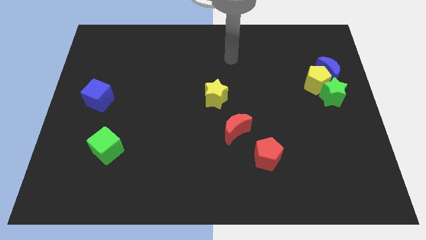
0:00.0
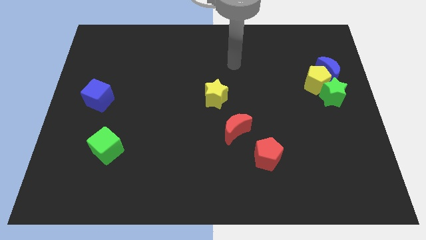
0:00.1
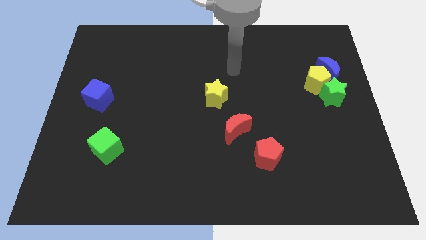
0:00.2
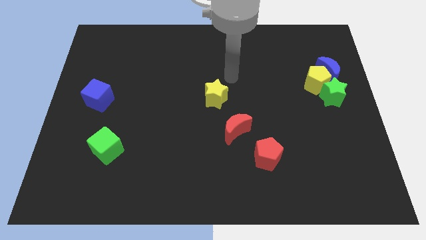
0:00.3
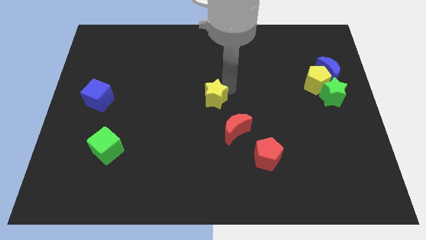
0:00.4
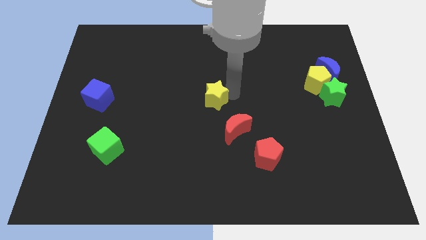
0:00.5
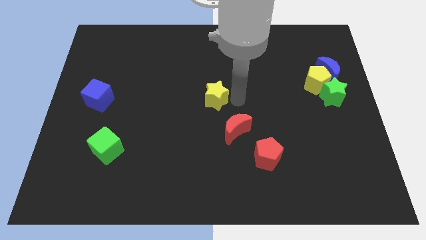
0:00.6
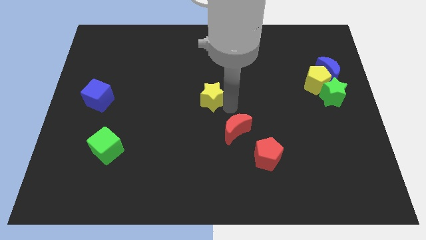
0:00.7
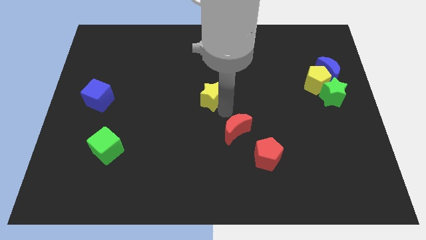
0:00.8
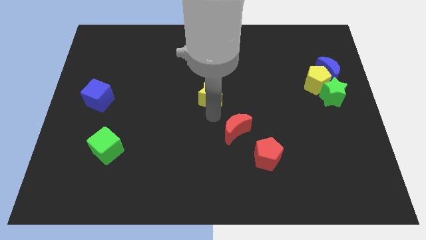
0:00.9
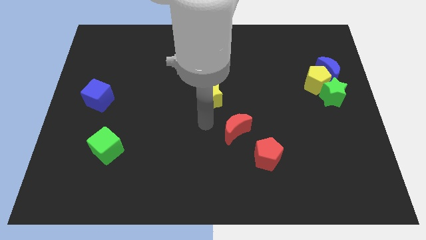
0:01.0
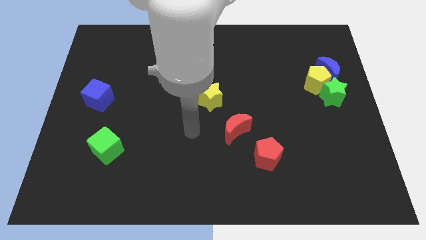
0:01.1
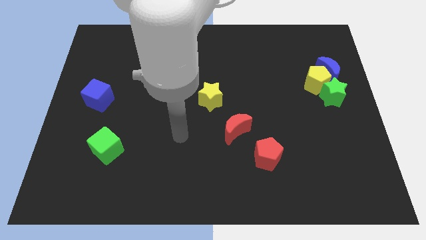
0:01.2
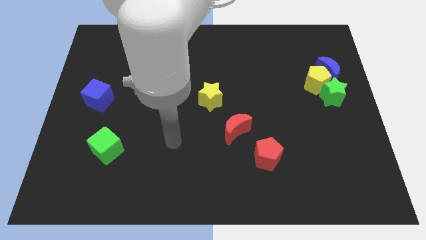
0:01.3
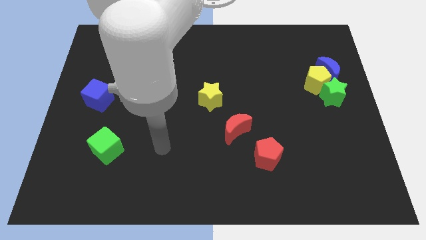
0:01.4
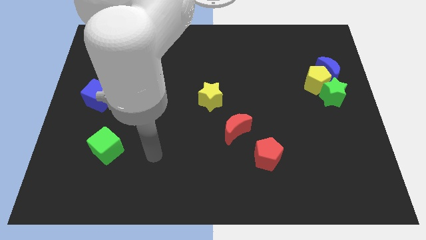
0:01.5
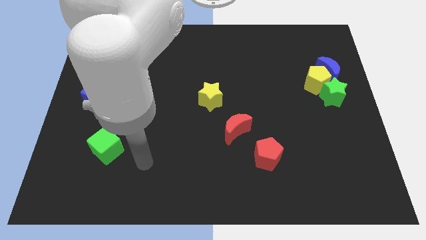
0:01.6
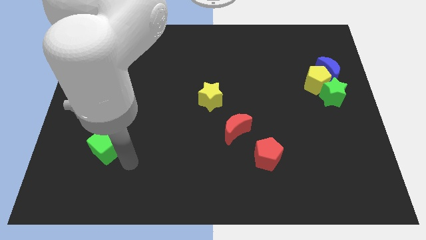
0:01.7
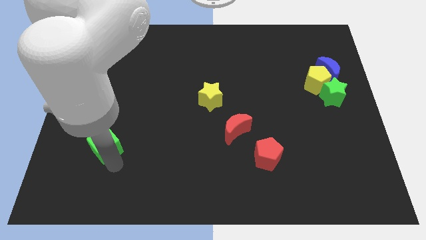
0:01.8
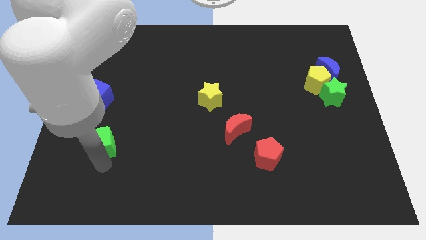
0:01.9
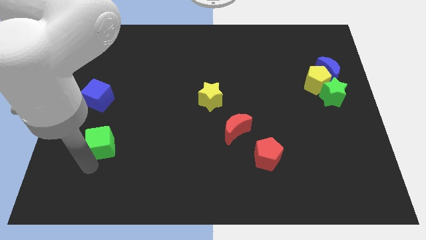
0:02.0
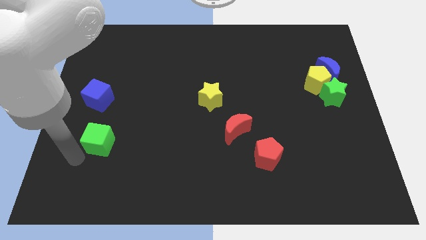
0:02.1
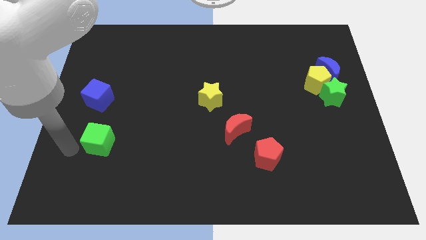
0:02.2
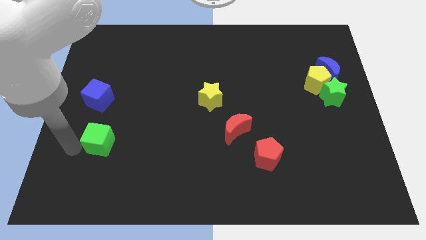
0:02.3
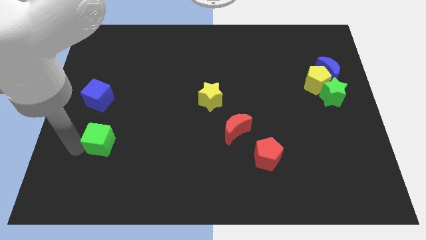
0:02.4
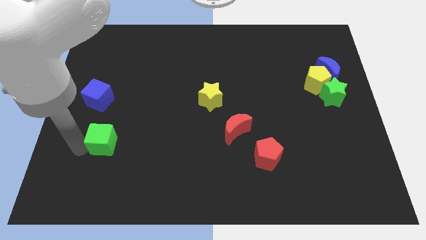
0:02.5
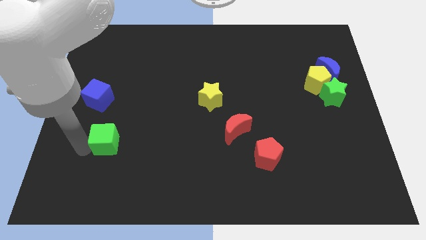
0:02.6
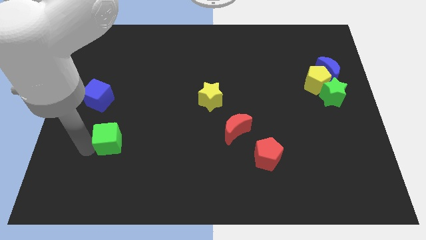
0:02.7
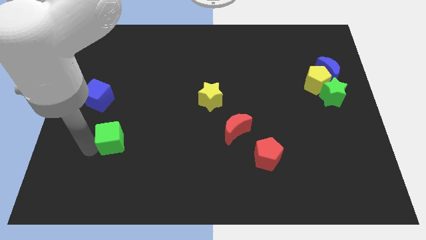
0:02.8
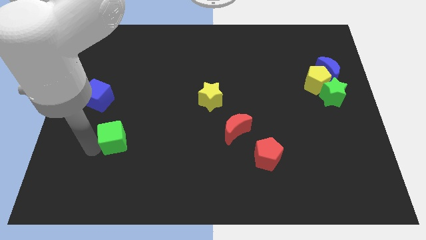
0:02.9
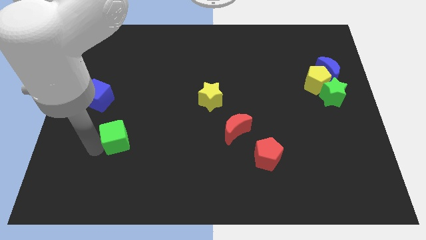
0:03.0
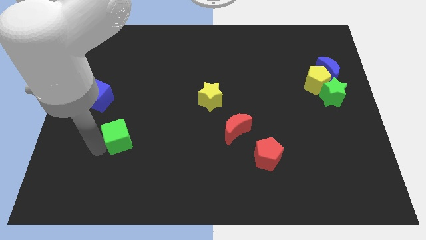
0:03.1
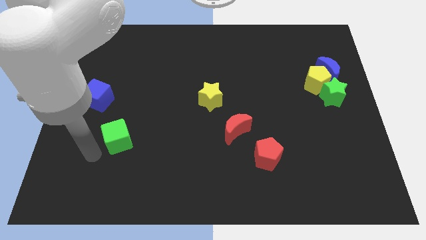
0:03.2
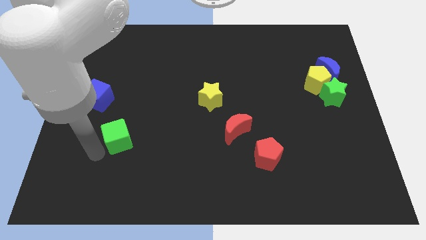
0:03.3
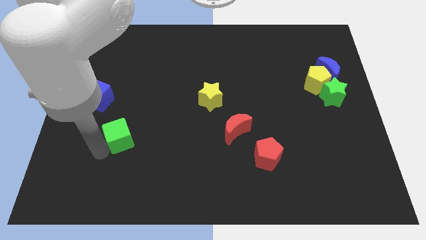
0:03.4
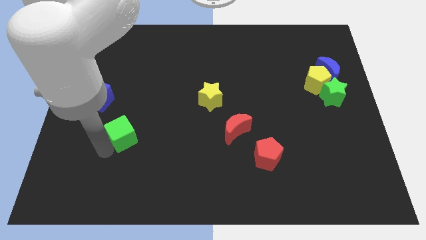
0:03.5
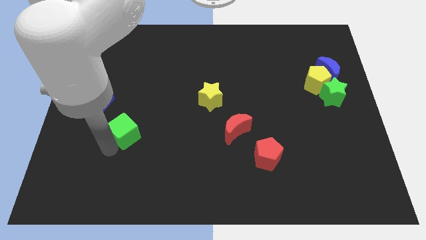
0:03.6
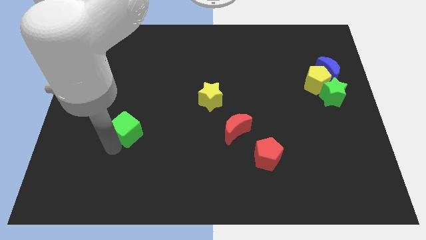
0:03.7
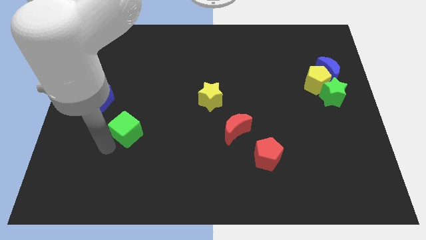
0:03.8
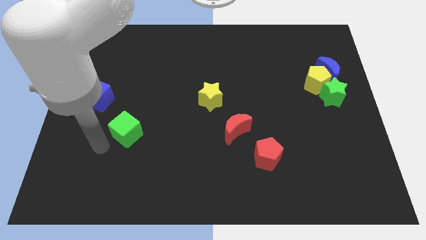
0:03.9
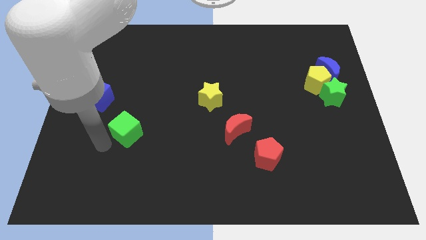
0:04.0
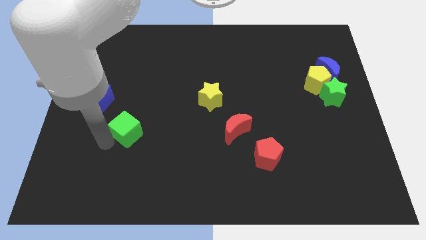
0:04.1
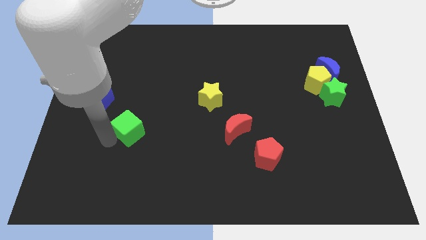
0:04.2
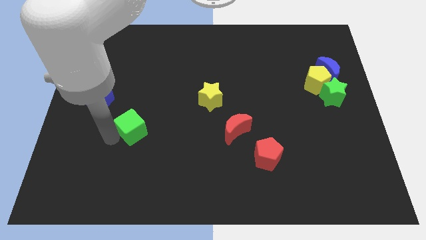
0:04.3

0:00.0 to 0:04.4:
slide the green cube a little up and right diagonally

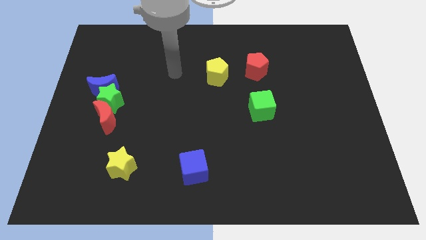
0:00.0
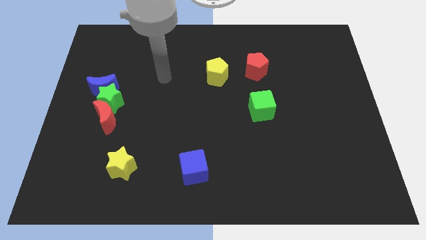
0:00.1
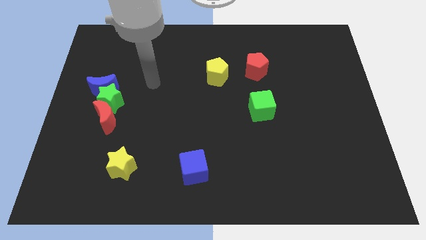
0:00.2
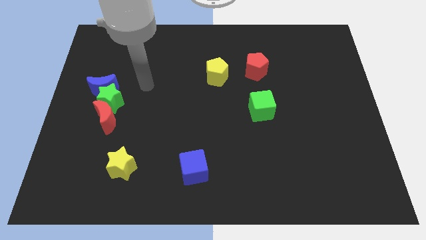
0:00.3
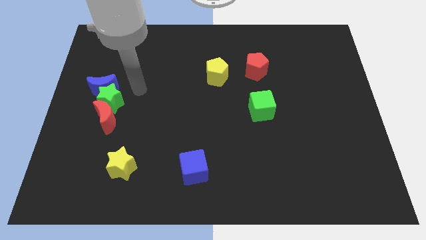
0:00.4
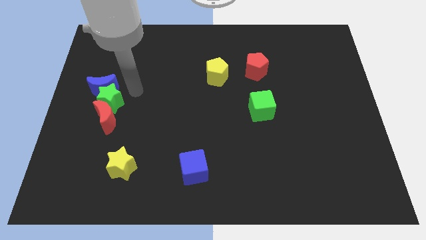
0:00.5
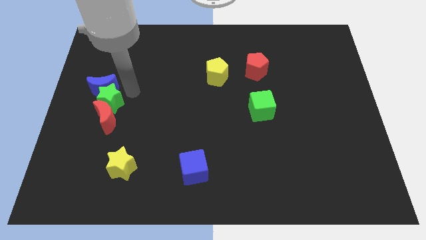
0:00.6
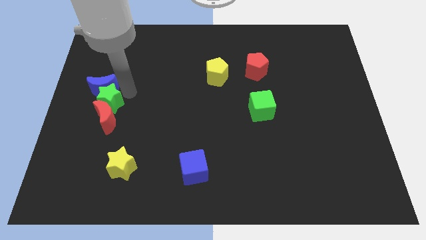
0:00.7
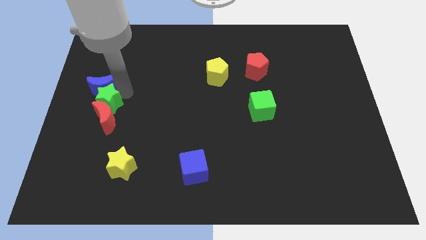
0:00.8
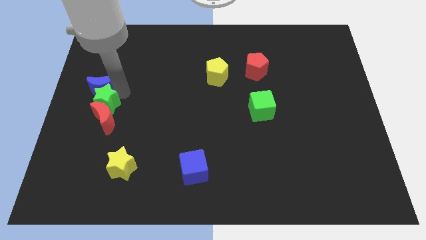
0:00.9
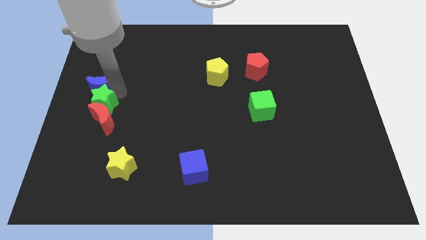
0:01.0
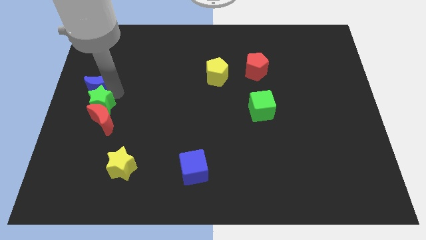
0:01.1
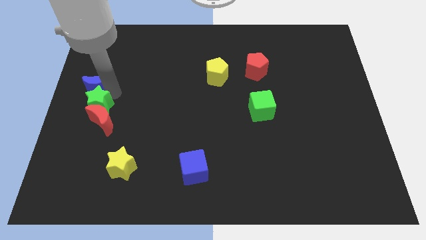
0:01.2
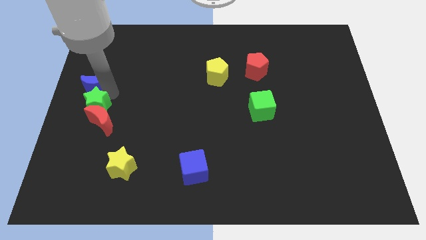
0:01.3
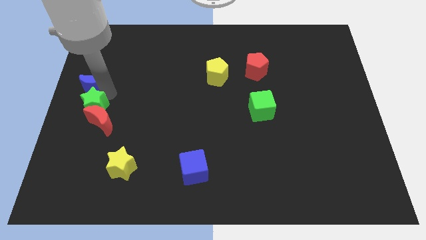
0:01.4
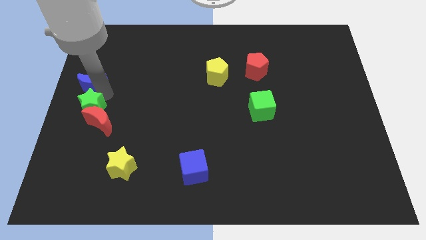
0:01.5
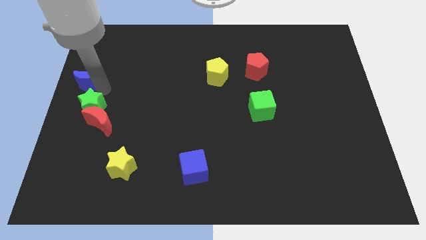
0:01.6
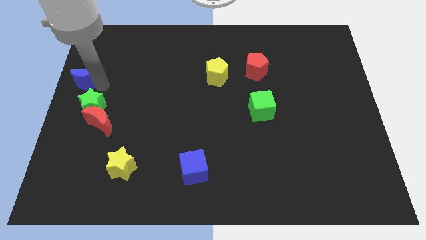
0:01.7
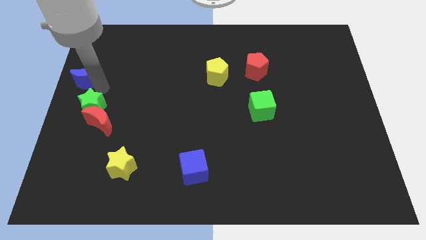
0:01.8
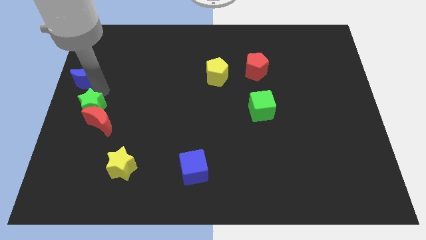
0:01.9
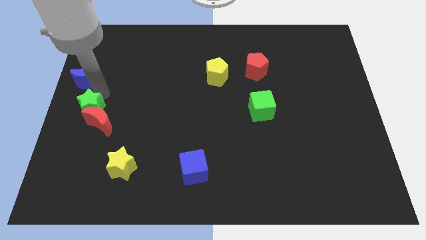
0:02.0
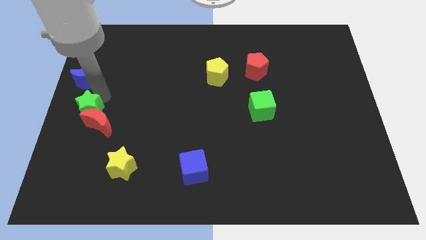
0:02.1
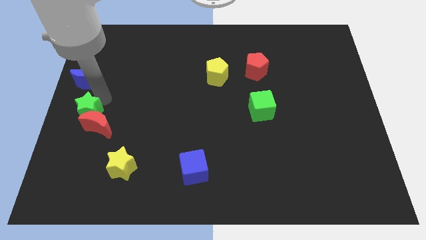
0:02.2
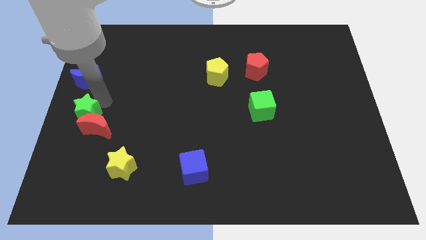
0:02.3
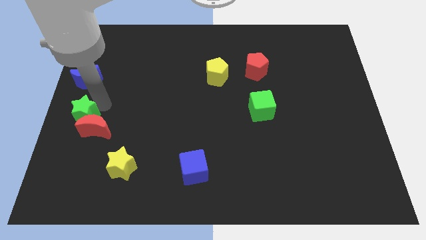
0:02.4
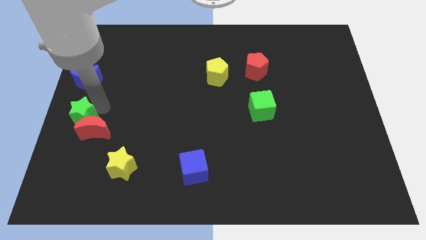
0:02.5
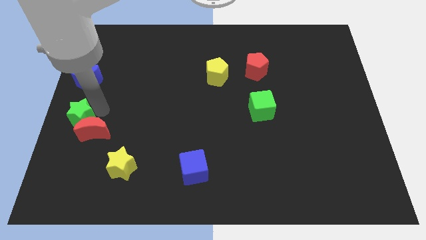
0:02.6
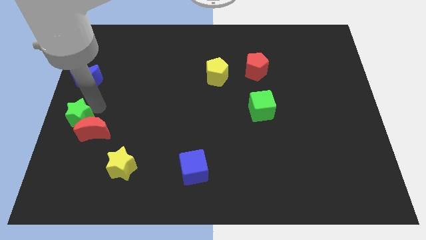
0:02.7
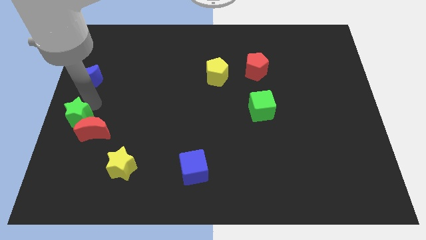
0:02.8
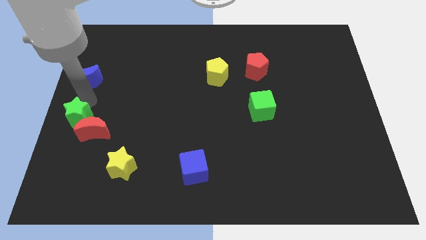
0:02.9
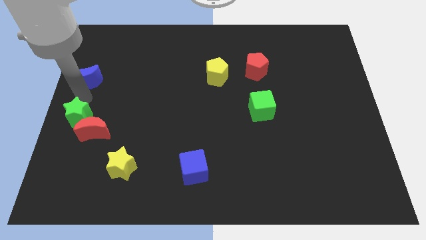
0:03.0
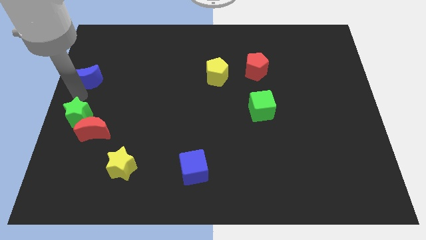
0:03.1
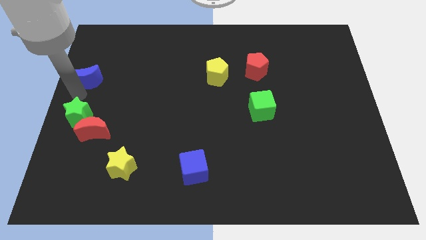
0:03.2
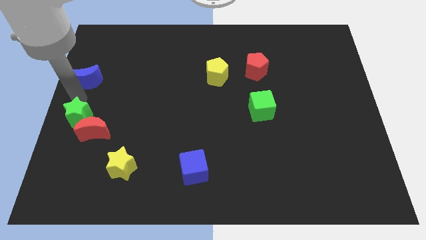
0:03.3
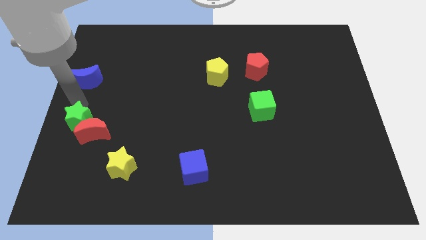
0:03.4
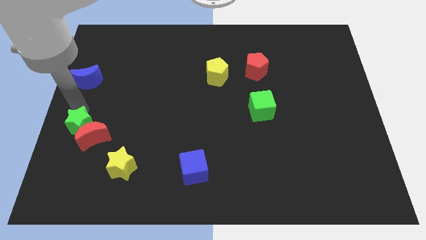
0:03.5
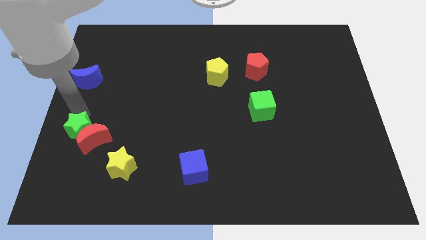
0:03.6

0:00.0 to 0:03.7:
push the green star slightly downwards

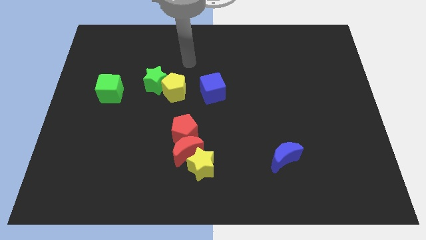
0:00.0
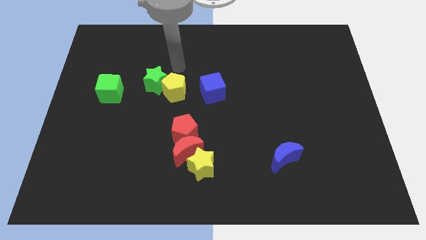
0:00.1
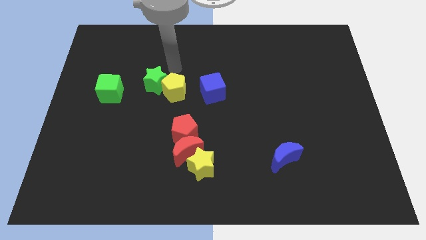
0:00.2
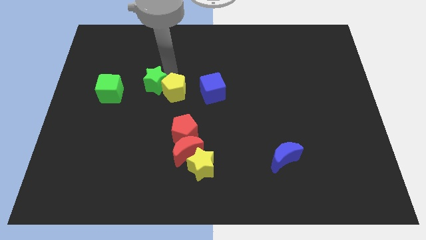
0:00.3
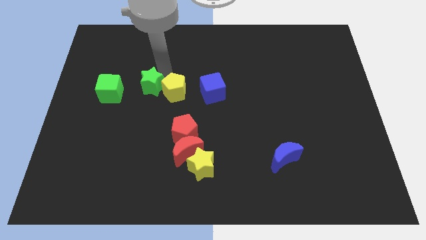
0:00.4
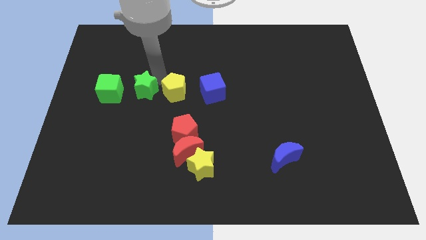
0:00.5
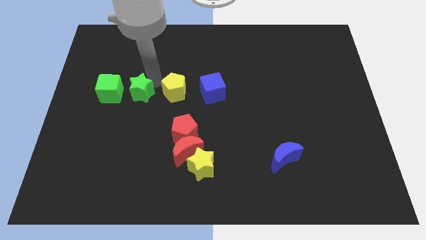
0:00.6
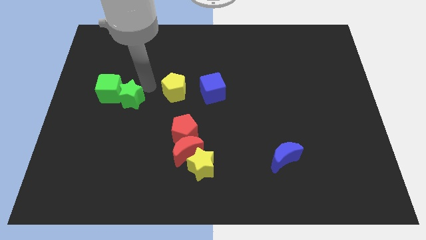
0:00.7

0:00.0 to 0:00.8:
move the green star a little bit down and to the left diagonally
